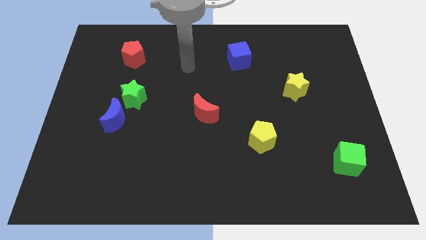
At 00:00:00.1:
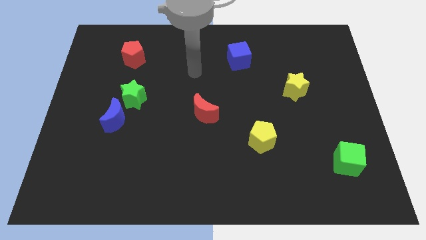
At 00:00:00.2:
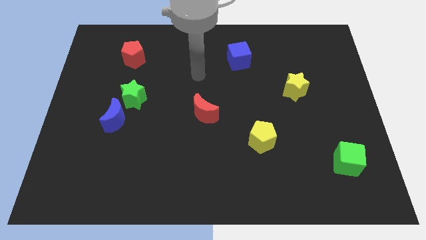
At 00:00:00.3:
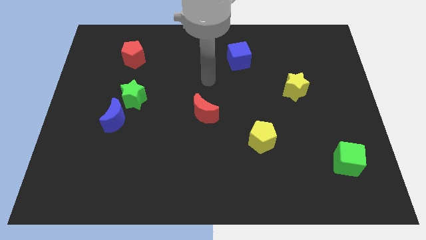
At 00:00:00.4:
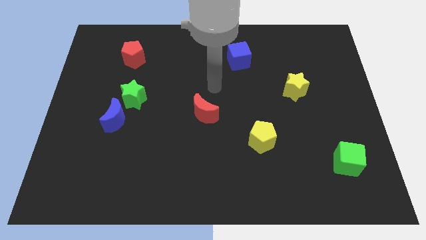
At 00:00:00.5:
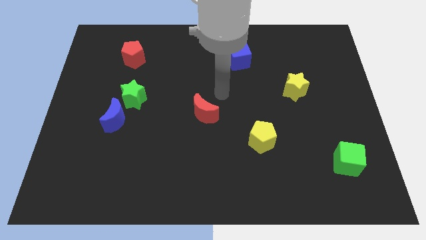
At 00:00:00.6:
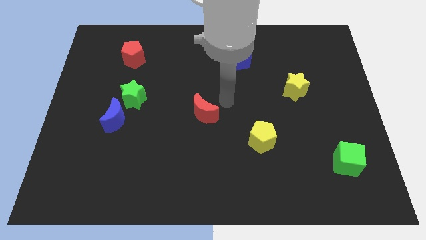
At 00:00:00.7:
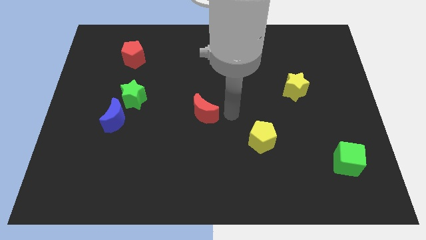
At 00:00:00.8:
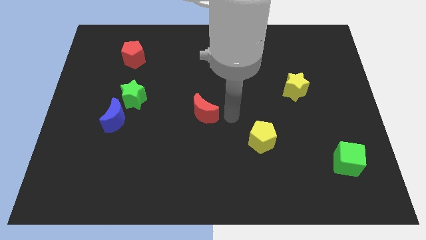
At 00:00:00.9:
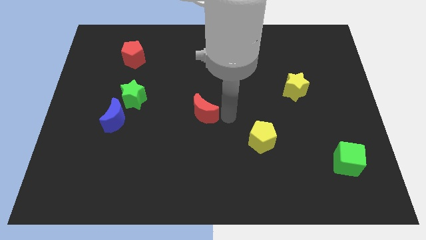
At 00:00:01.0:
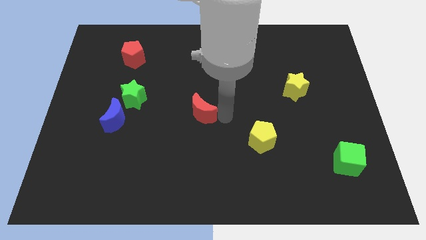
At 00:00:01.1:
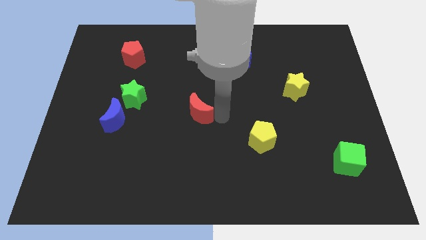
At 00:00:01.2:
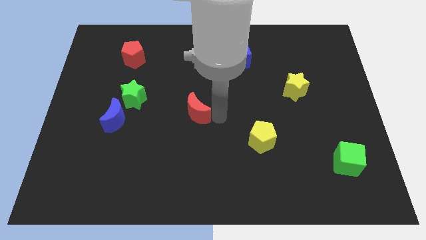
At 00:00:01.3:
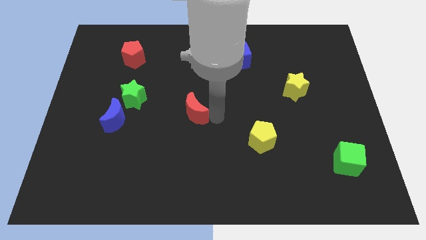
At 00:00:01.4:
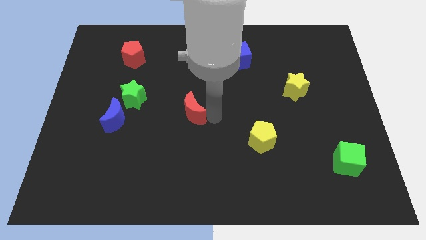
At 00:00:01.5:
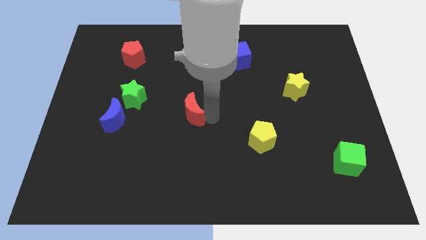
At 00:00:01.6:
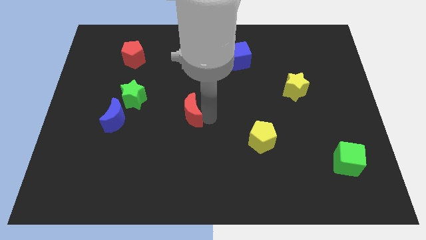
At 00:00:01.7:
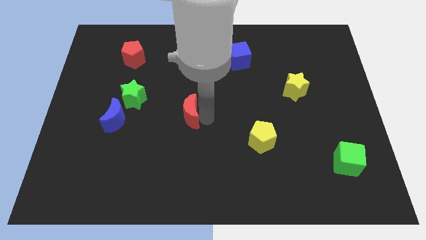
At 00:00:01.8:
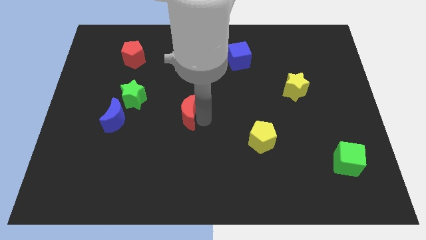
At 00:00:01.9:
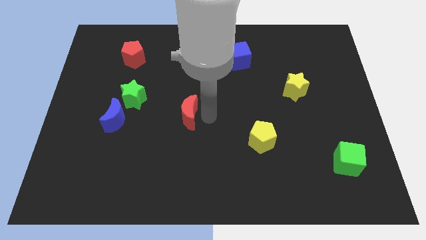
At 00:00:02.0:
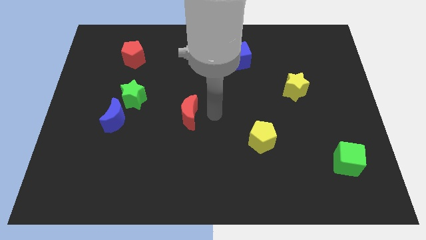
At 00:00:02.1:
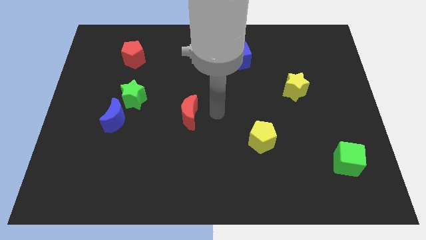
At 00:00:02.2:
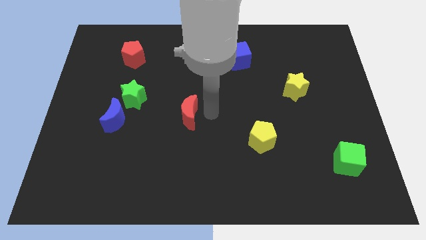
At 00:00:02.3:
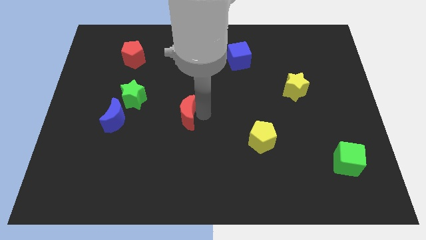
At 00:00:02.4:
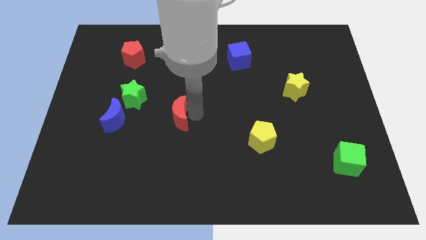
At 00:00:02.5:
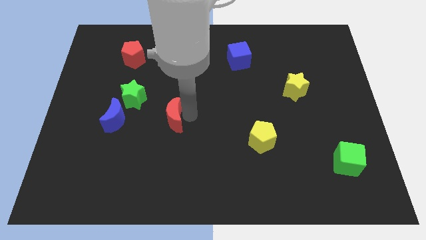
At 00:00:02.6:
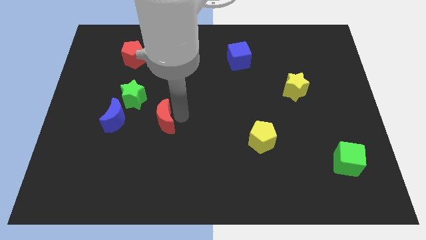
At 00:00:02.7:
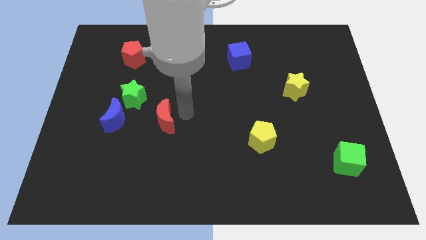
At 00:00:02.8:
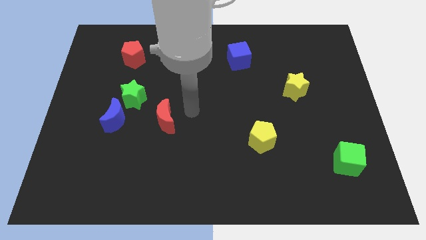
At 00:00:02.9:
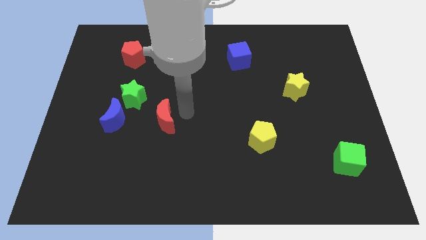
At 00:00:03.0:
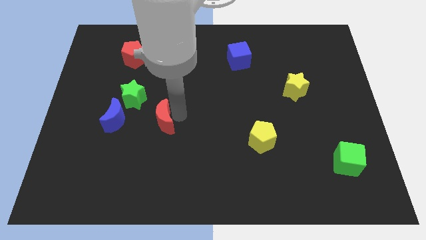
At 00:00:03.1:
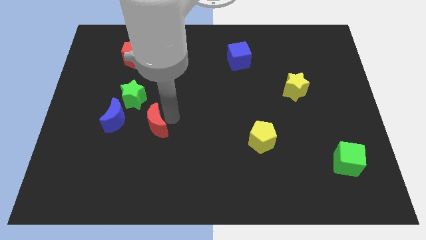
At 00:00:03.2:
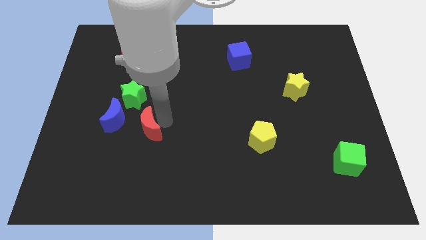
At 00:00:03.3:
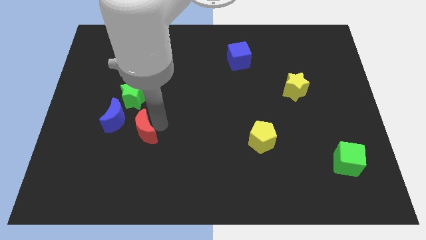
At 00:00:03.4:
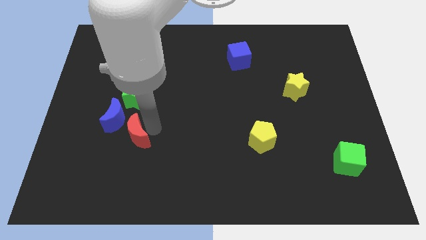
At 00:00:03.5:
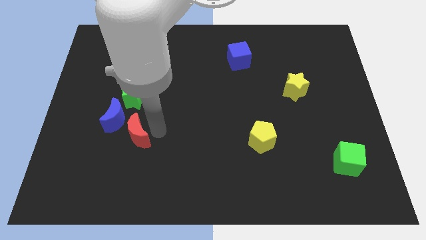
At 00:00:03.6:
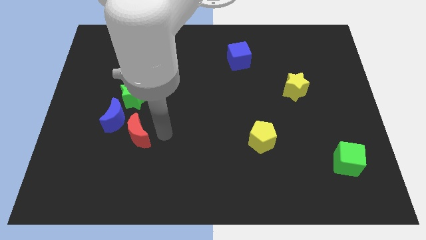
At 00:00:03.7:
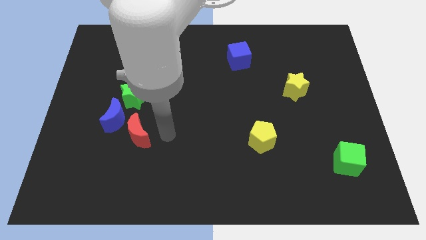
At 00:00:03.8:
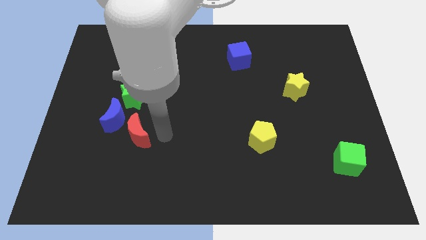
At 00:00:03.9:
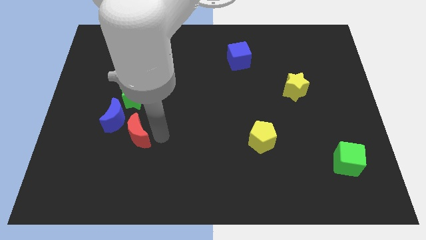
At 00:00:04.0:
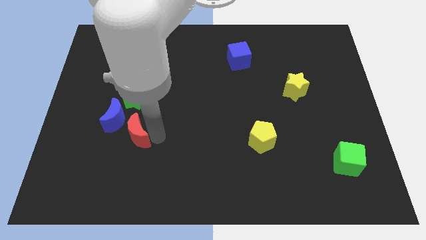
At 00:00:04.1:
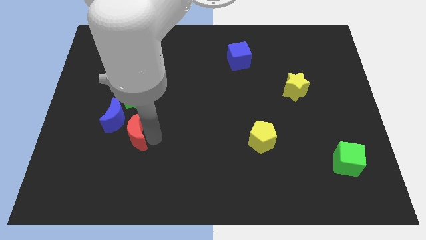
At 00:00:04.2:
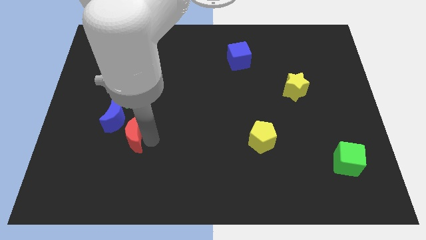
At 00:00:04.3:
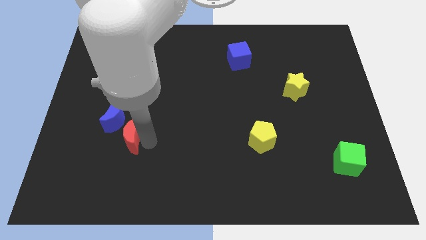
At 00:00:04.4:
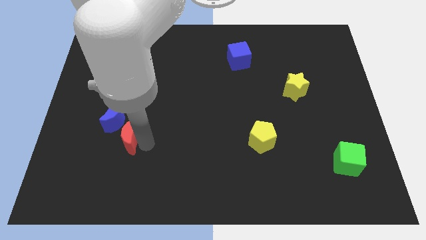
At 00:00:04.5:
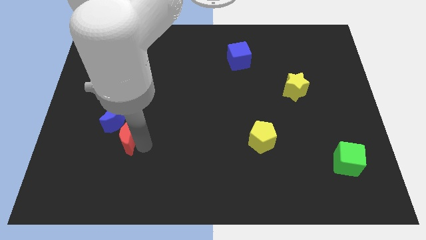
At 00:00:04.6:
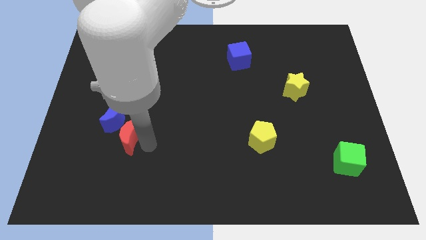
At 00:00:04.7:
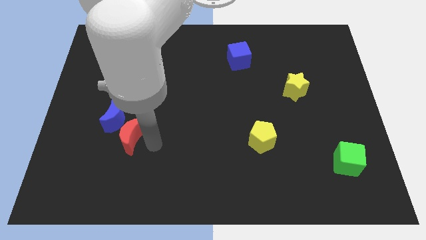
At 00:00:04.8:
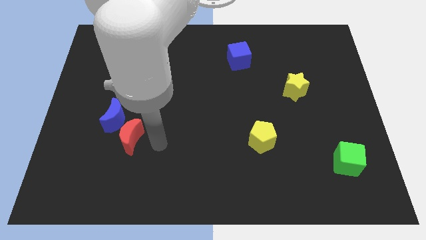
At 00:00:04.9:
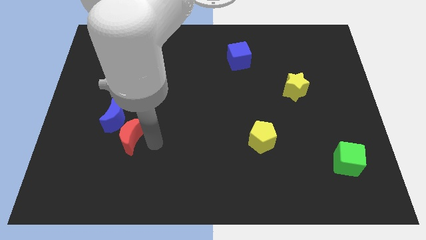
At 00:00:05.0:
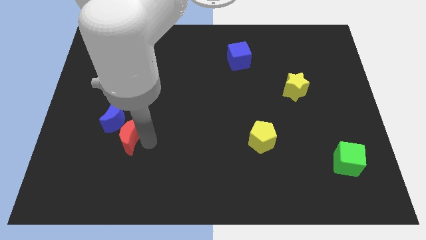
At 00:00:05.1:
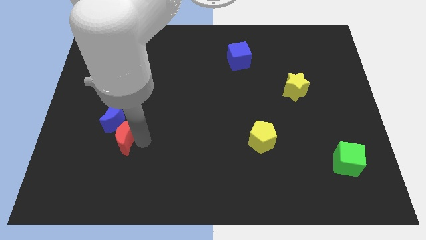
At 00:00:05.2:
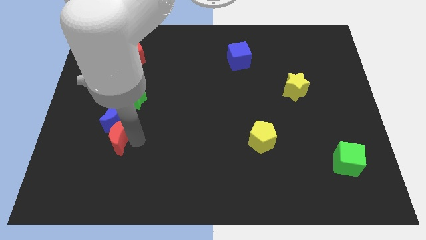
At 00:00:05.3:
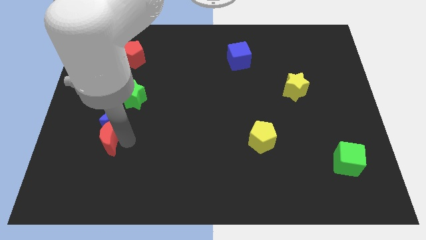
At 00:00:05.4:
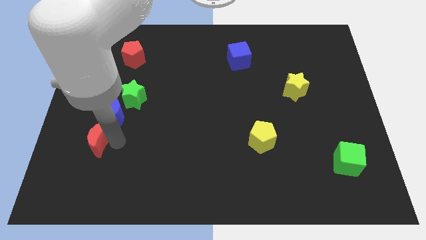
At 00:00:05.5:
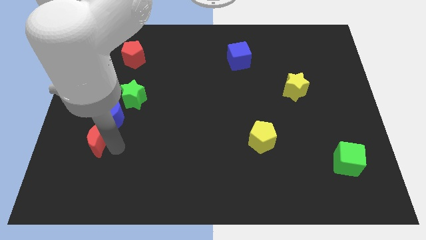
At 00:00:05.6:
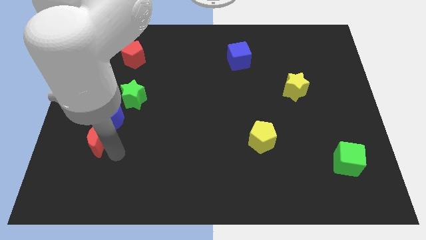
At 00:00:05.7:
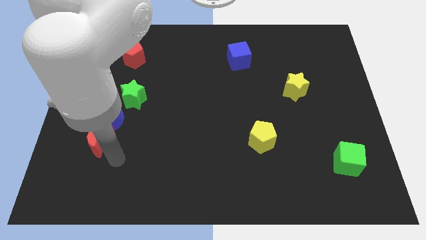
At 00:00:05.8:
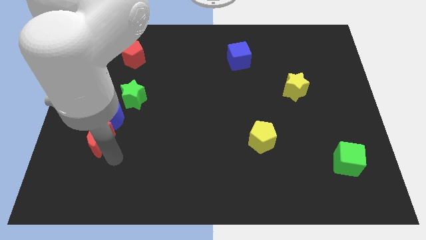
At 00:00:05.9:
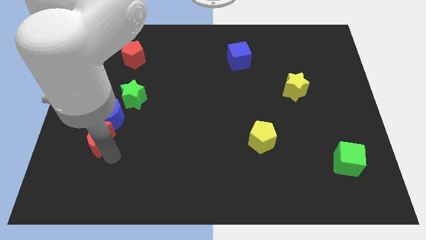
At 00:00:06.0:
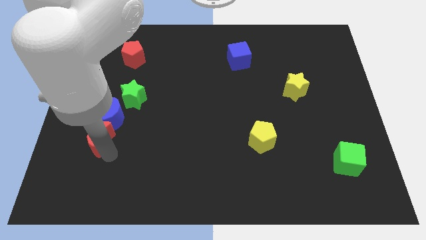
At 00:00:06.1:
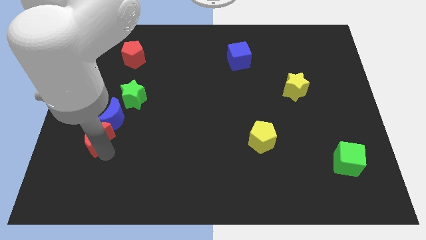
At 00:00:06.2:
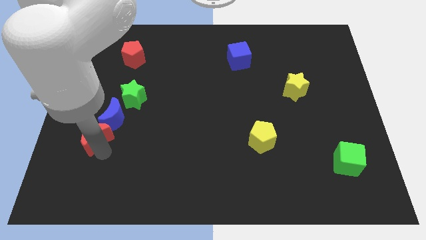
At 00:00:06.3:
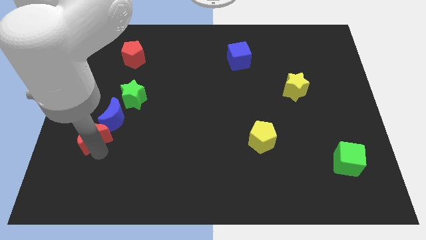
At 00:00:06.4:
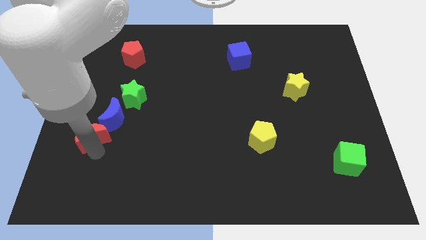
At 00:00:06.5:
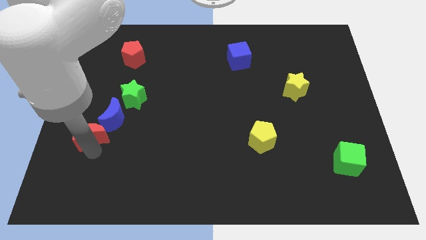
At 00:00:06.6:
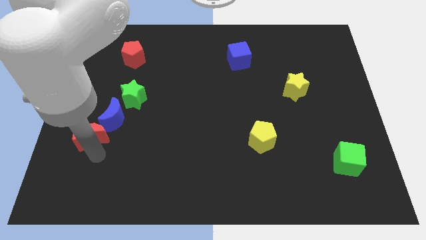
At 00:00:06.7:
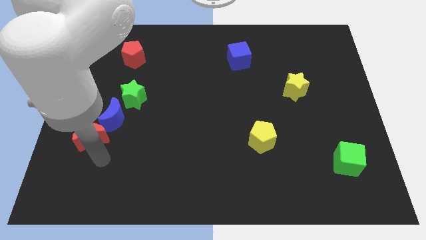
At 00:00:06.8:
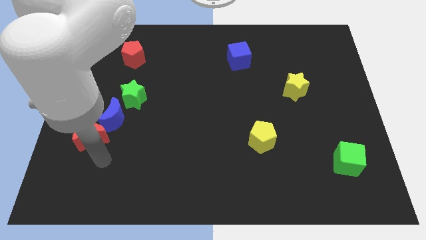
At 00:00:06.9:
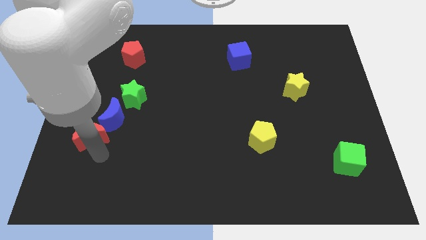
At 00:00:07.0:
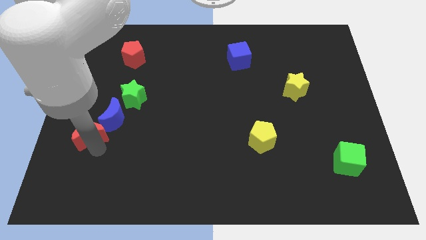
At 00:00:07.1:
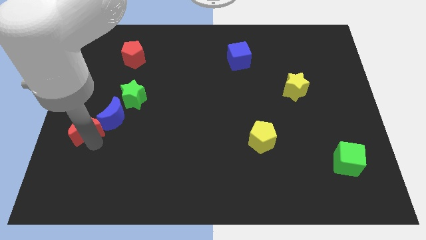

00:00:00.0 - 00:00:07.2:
slide the red moon to the left side
